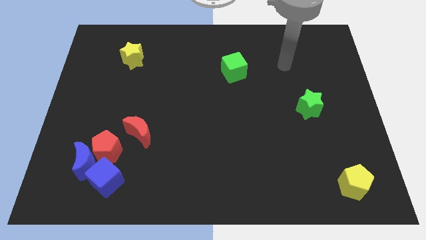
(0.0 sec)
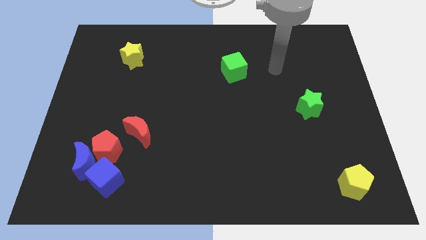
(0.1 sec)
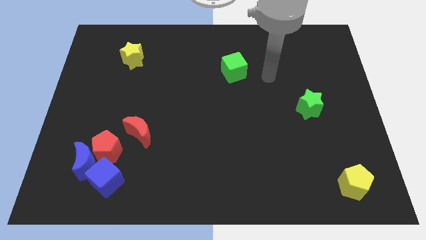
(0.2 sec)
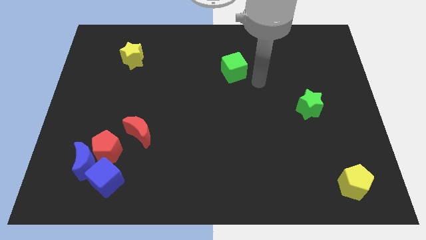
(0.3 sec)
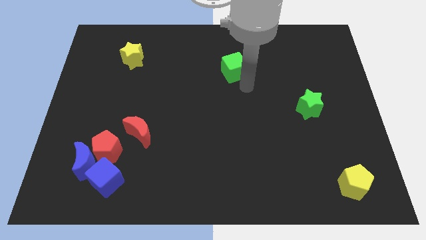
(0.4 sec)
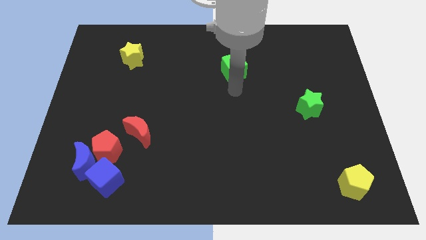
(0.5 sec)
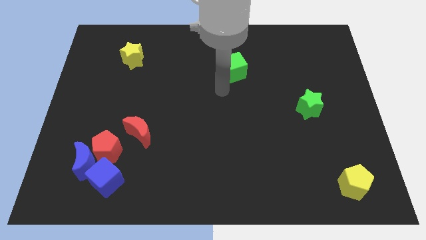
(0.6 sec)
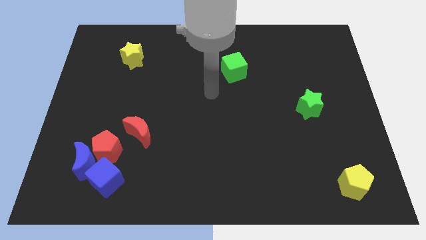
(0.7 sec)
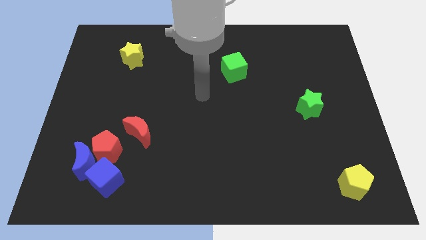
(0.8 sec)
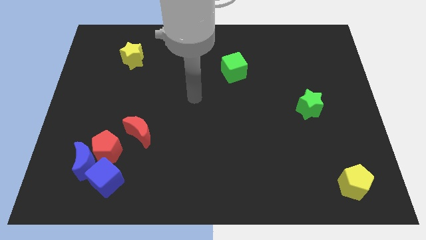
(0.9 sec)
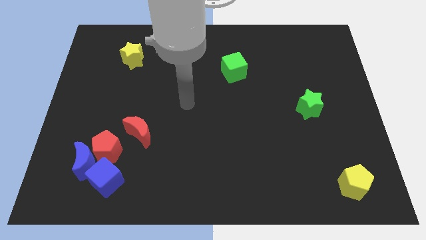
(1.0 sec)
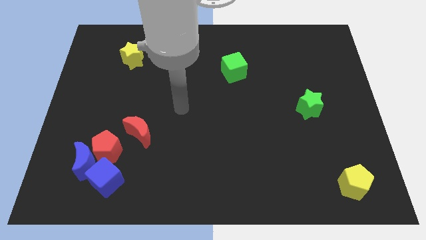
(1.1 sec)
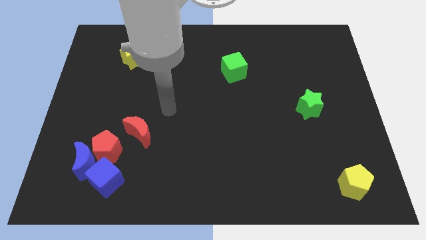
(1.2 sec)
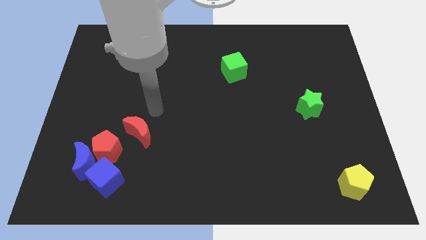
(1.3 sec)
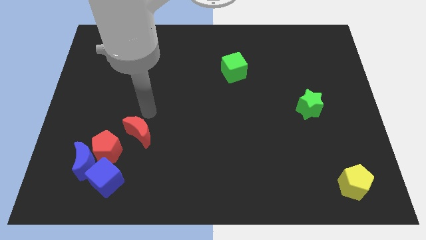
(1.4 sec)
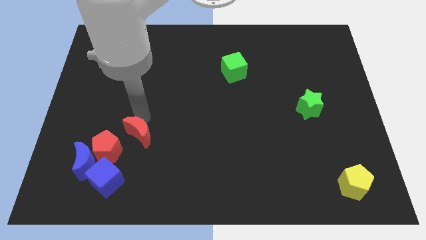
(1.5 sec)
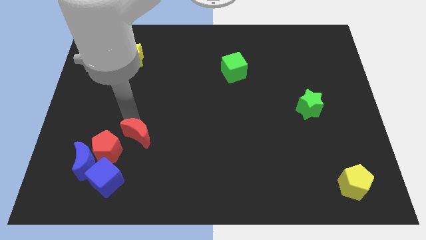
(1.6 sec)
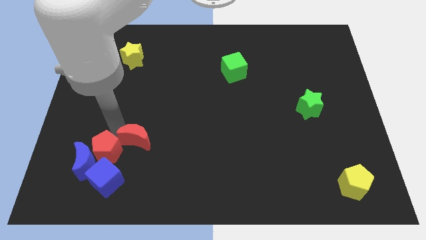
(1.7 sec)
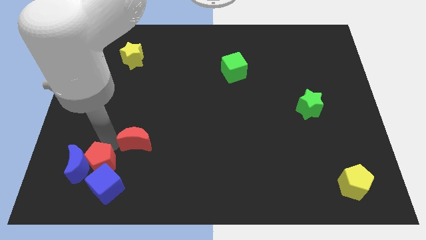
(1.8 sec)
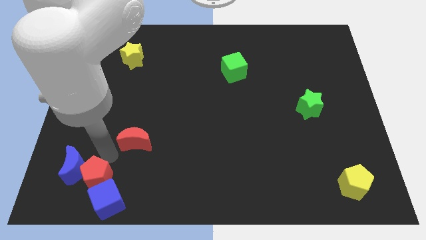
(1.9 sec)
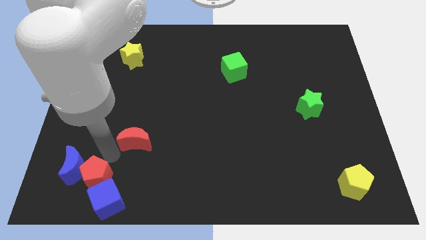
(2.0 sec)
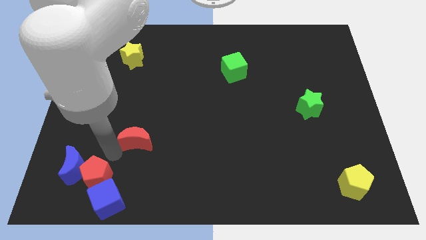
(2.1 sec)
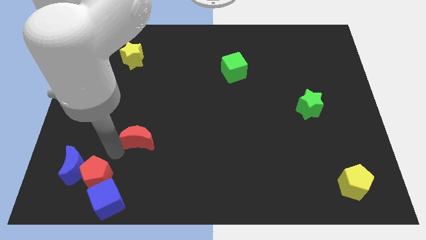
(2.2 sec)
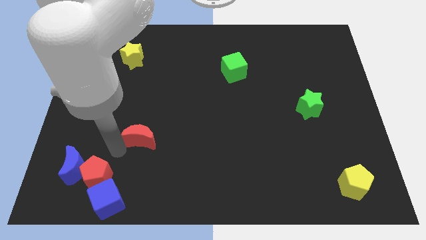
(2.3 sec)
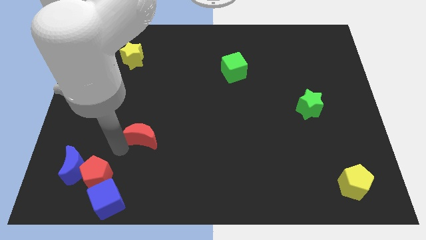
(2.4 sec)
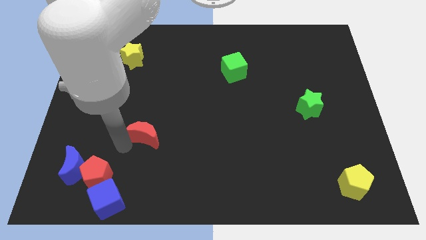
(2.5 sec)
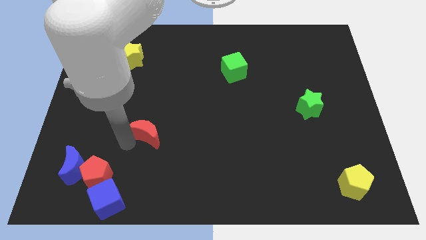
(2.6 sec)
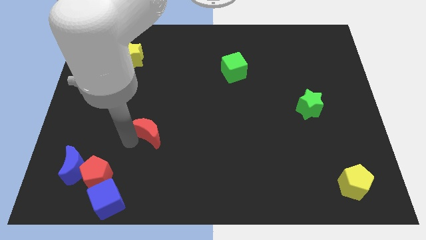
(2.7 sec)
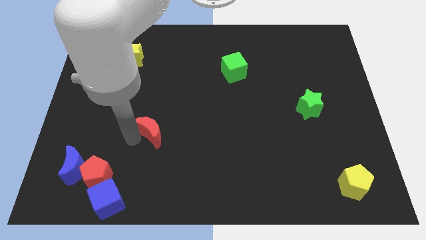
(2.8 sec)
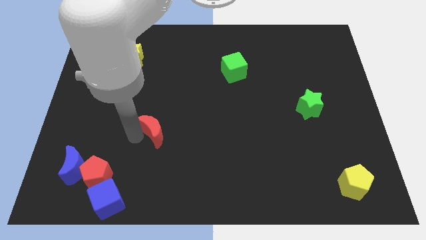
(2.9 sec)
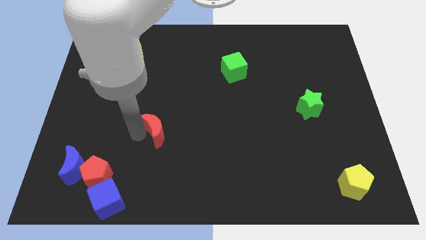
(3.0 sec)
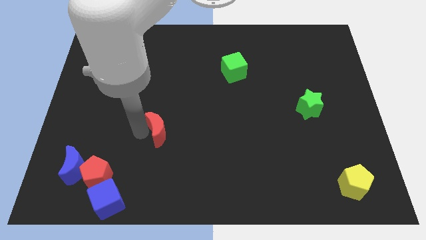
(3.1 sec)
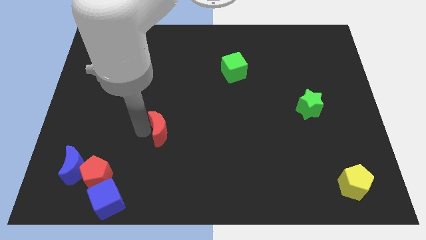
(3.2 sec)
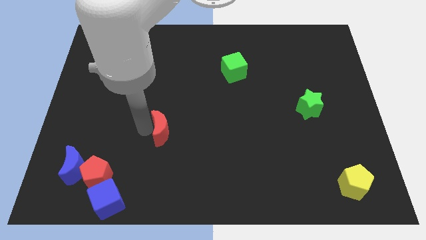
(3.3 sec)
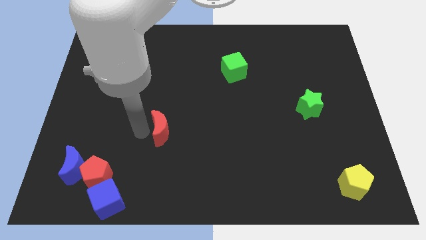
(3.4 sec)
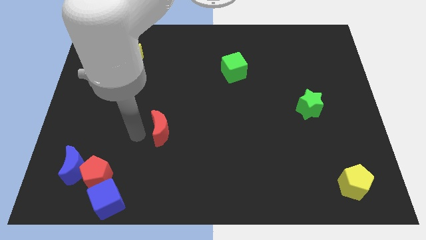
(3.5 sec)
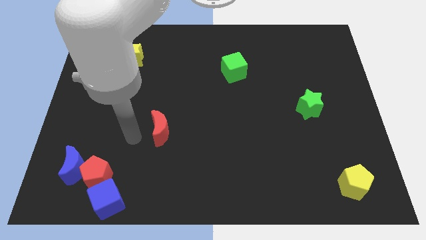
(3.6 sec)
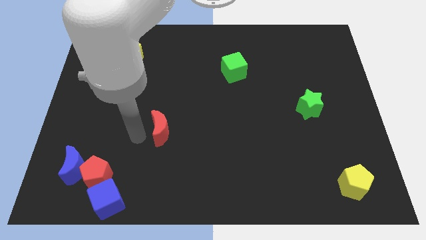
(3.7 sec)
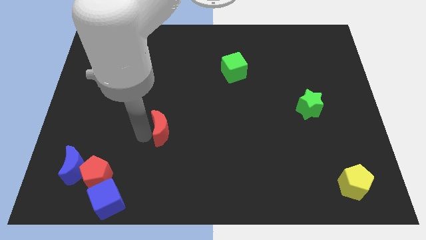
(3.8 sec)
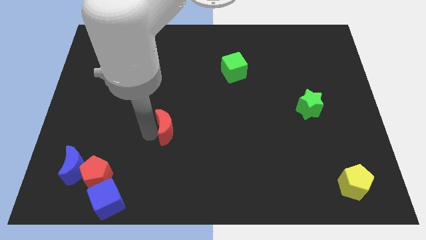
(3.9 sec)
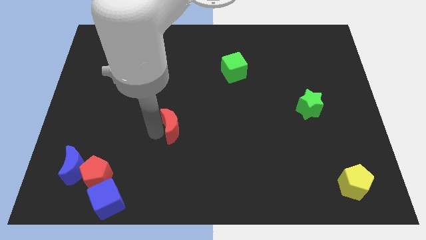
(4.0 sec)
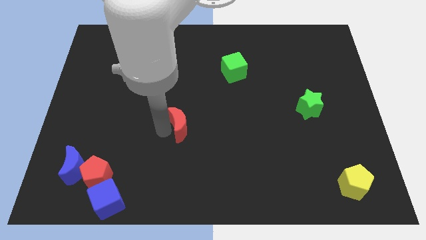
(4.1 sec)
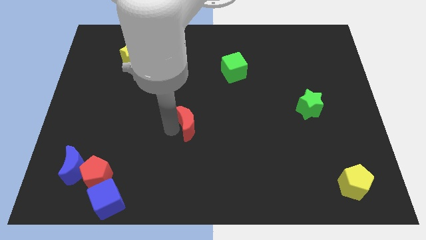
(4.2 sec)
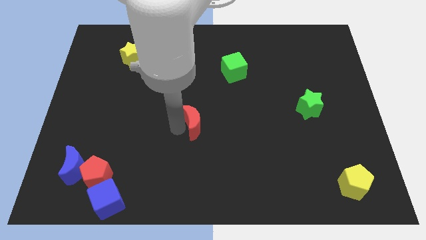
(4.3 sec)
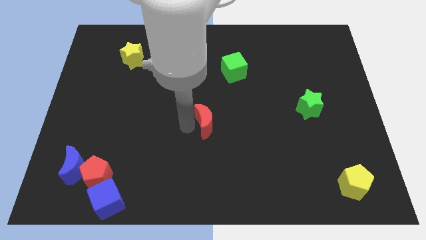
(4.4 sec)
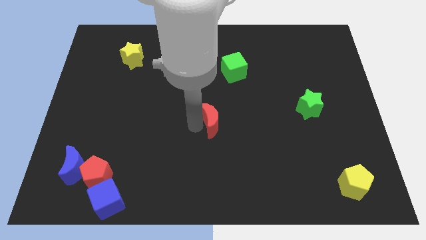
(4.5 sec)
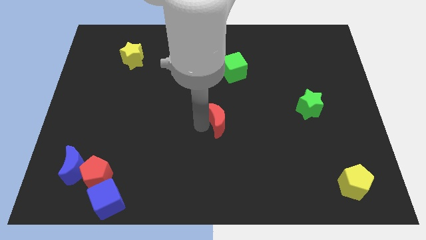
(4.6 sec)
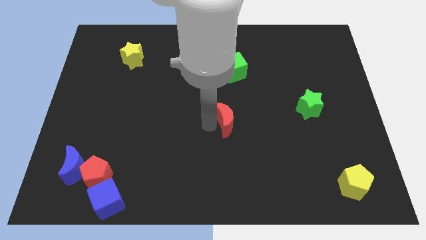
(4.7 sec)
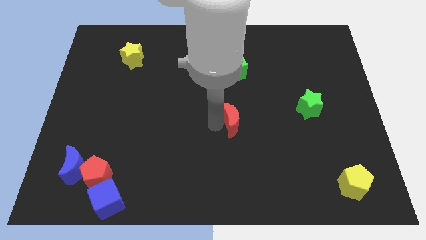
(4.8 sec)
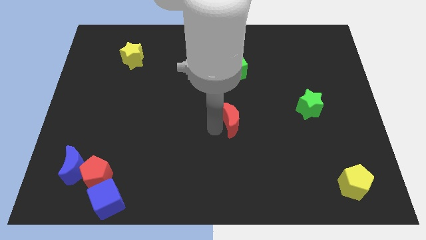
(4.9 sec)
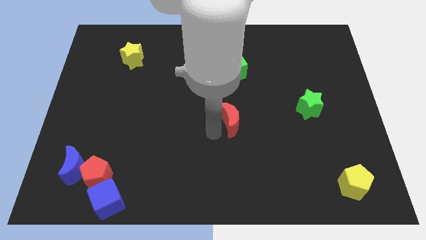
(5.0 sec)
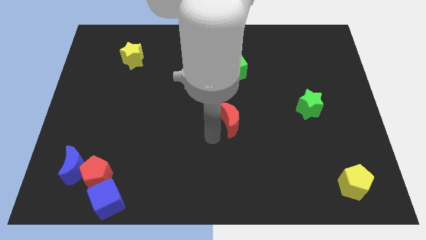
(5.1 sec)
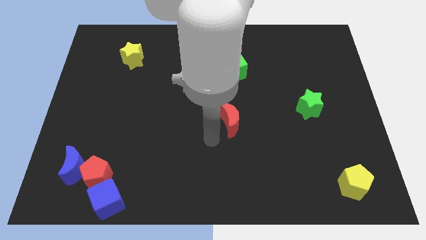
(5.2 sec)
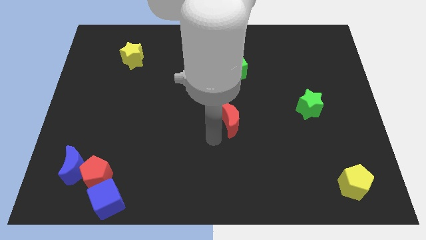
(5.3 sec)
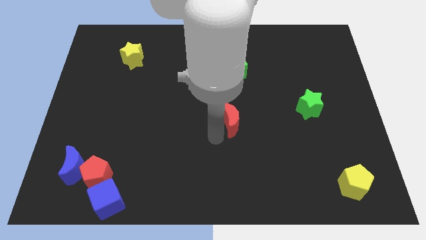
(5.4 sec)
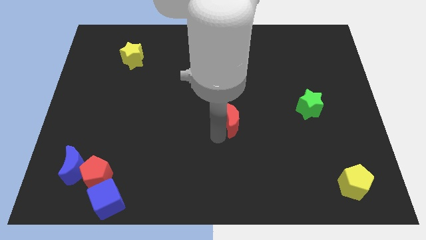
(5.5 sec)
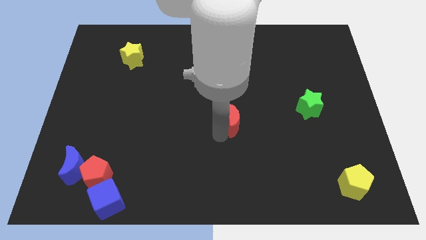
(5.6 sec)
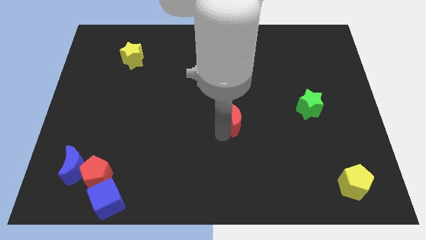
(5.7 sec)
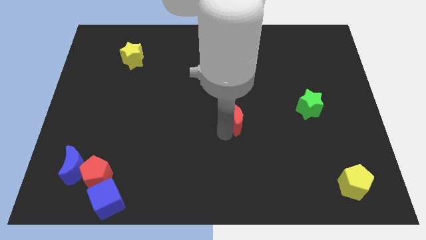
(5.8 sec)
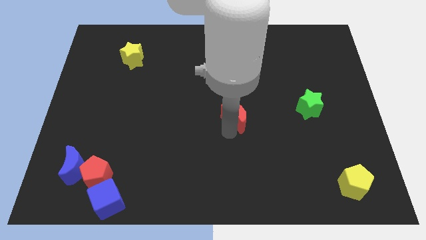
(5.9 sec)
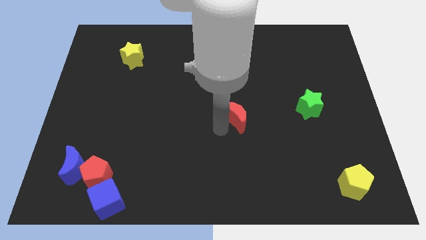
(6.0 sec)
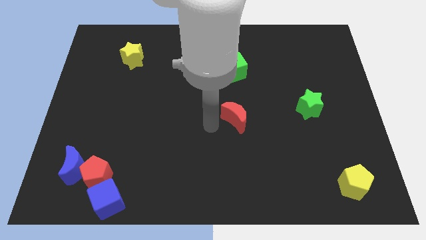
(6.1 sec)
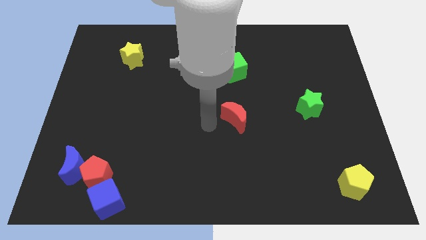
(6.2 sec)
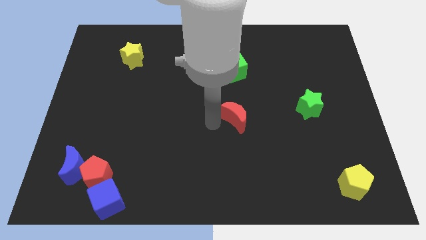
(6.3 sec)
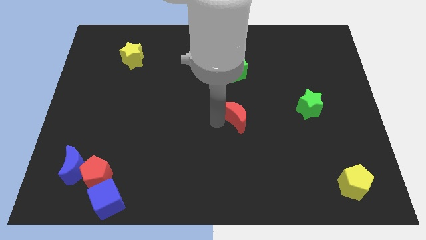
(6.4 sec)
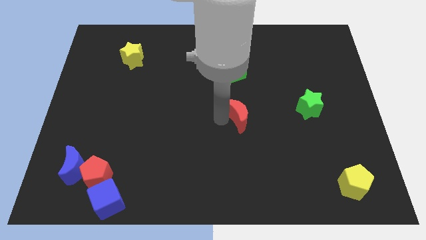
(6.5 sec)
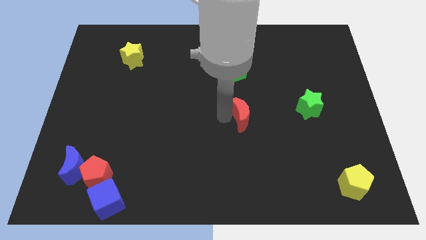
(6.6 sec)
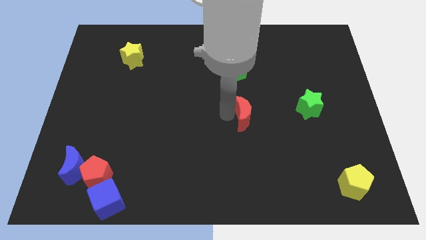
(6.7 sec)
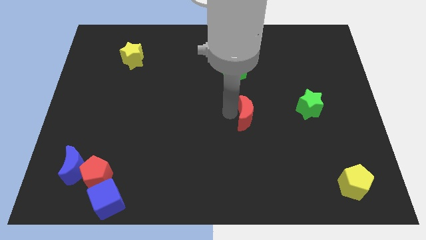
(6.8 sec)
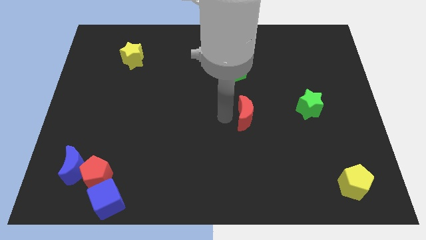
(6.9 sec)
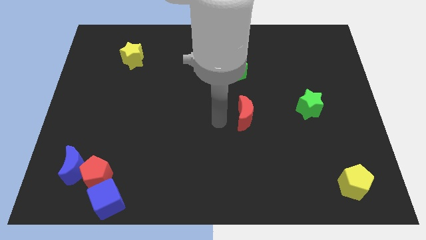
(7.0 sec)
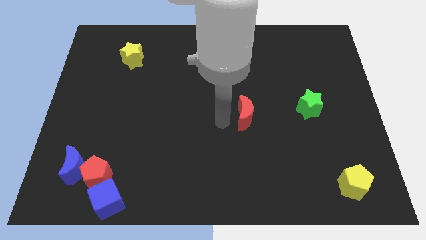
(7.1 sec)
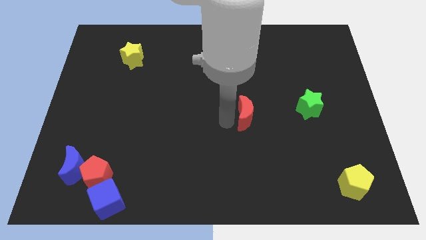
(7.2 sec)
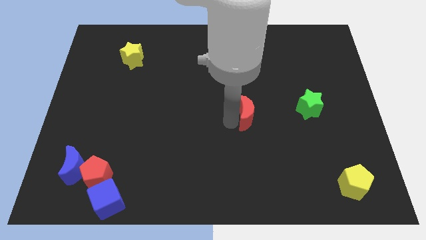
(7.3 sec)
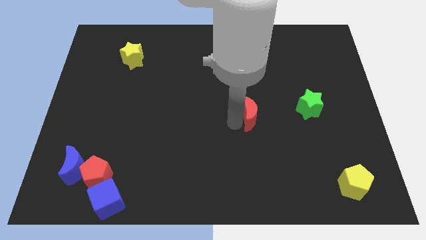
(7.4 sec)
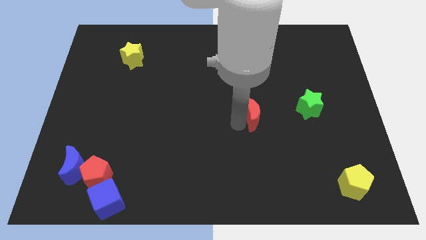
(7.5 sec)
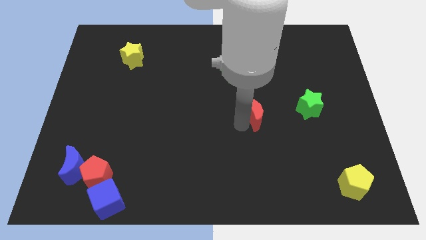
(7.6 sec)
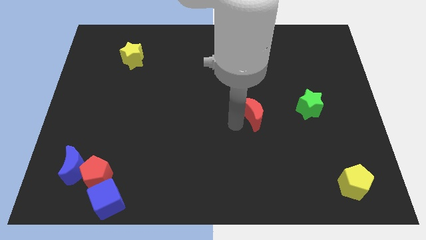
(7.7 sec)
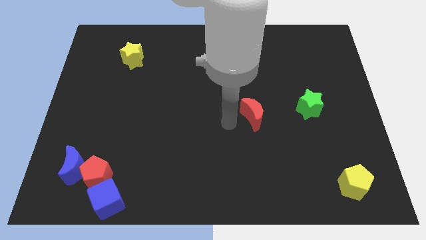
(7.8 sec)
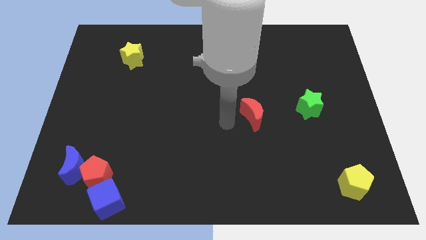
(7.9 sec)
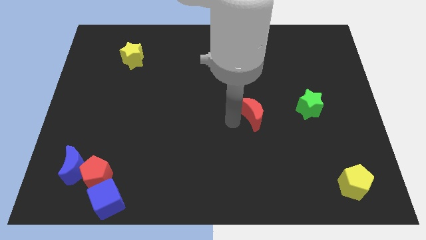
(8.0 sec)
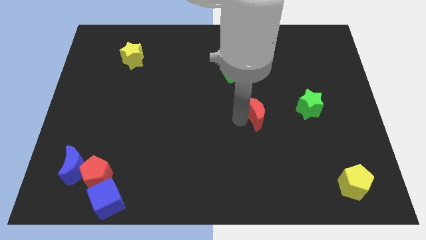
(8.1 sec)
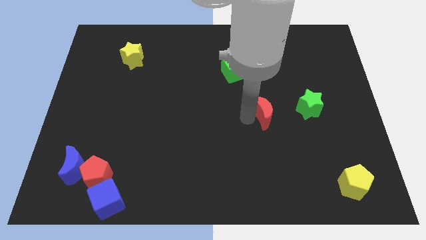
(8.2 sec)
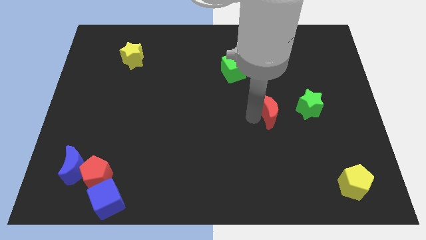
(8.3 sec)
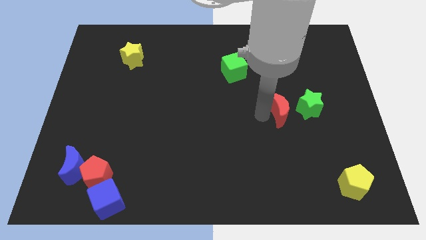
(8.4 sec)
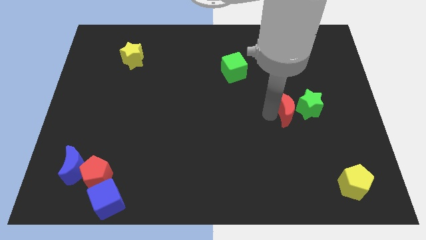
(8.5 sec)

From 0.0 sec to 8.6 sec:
slide the red moon to the green star
